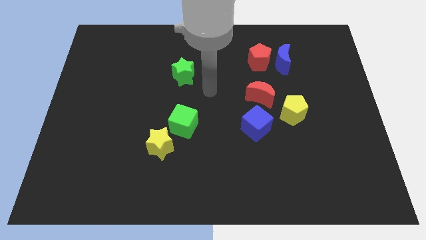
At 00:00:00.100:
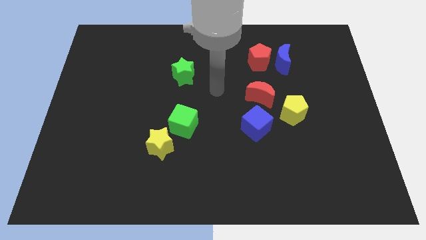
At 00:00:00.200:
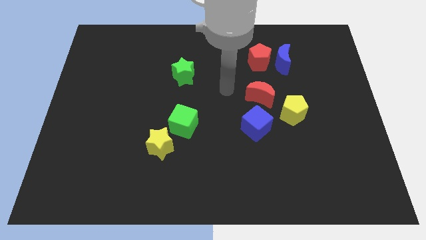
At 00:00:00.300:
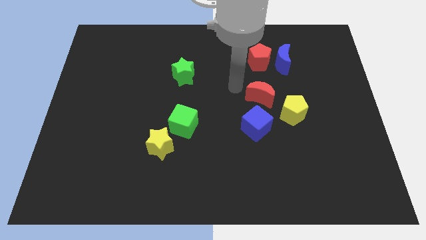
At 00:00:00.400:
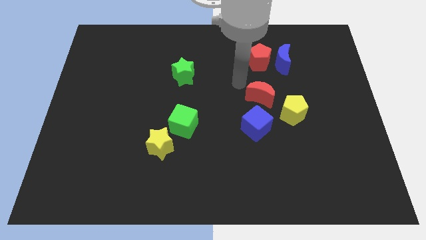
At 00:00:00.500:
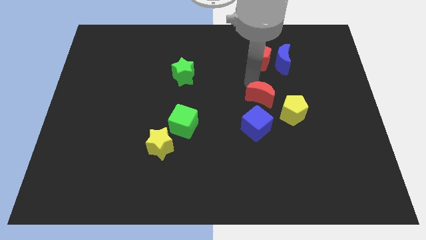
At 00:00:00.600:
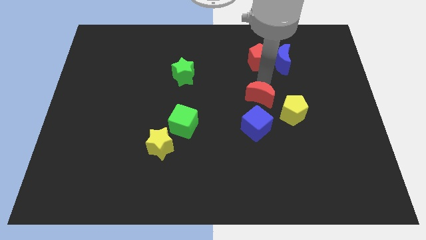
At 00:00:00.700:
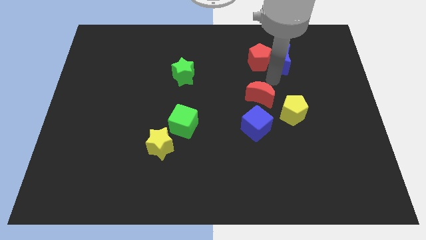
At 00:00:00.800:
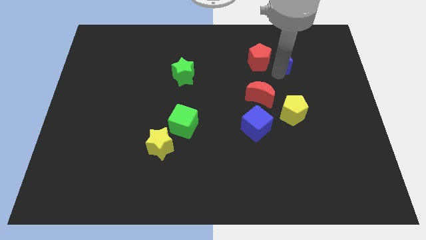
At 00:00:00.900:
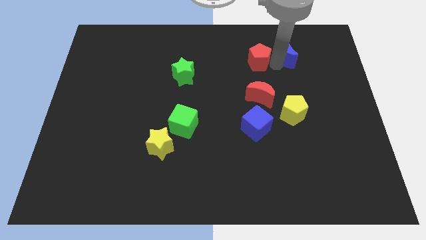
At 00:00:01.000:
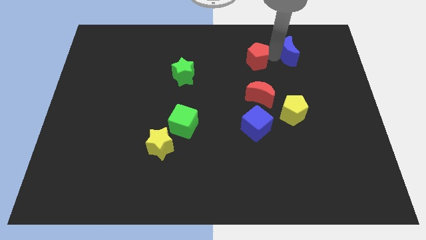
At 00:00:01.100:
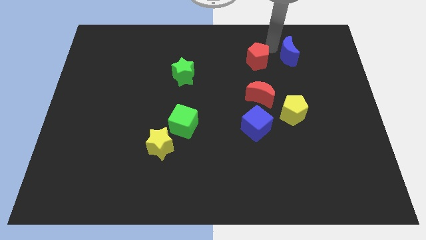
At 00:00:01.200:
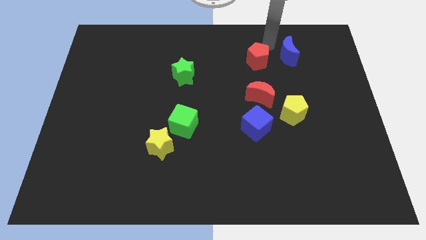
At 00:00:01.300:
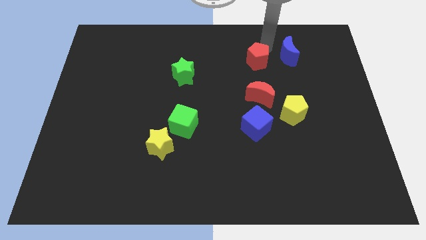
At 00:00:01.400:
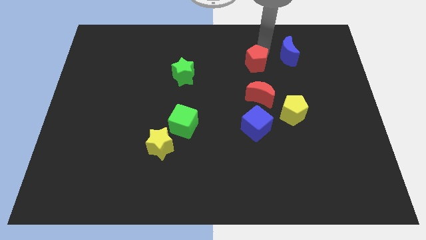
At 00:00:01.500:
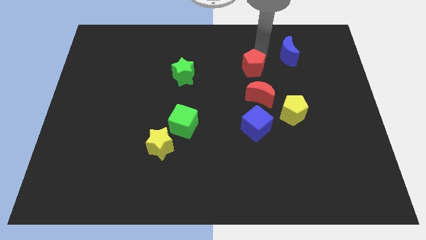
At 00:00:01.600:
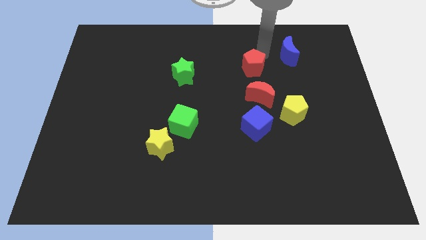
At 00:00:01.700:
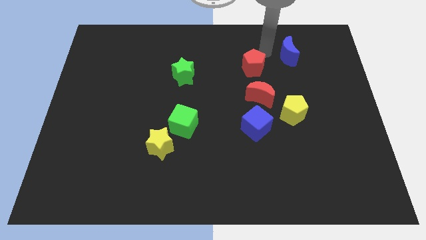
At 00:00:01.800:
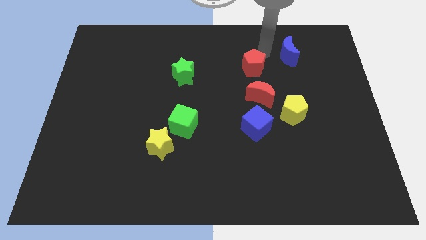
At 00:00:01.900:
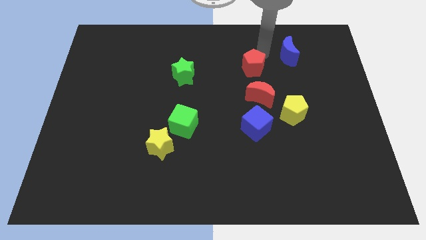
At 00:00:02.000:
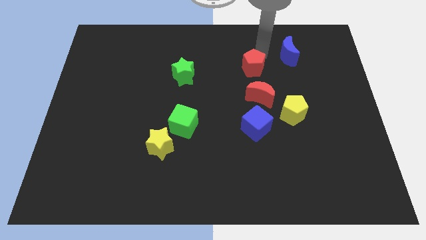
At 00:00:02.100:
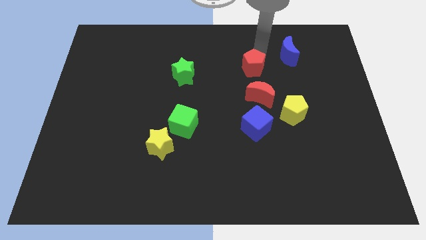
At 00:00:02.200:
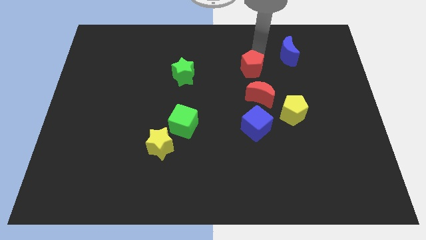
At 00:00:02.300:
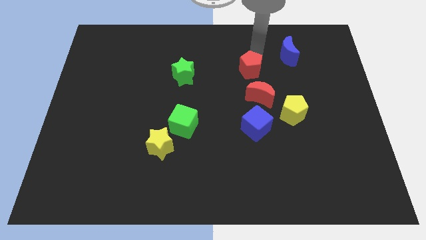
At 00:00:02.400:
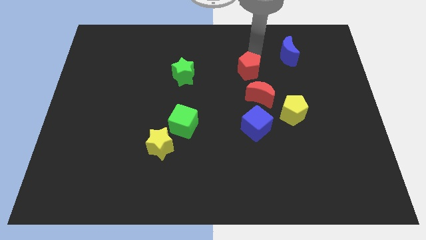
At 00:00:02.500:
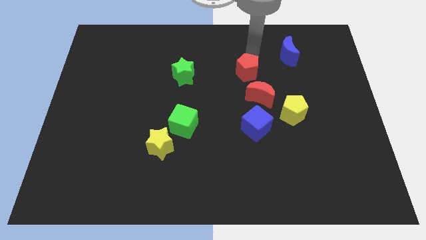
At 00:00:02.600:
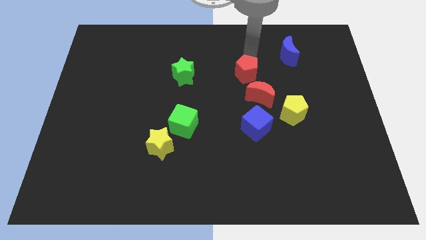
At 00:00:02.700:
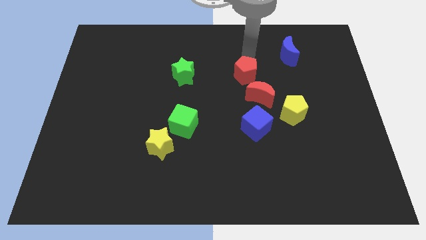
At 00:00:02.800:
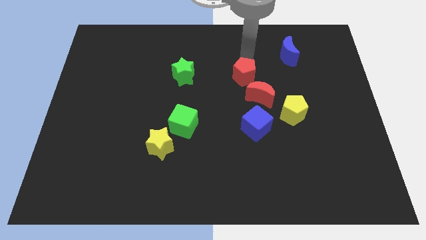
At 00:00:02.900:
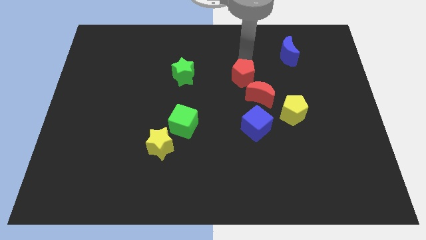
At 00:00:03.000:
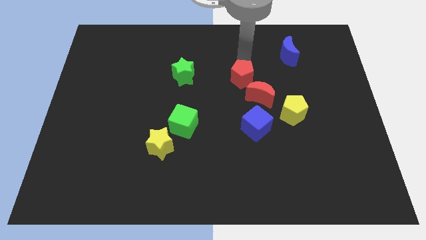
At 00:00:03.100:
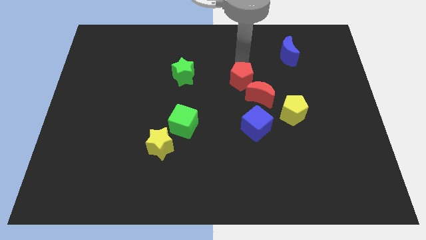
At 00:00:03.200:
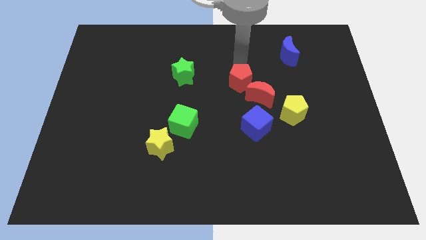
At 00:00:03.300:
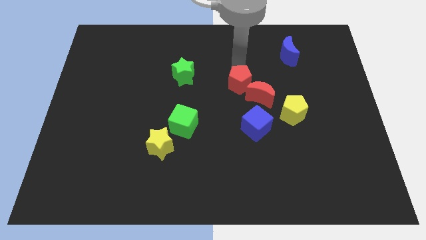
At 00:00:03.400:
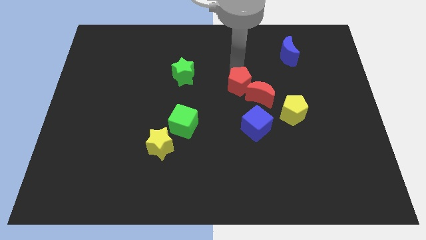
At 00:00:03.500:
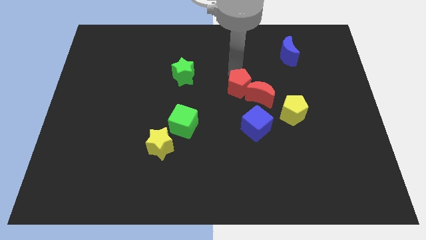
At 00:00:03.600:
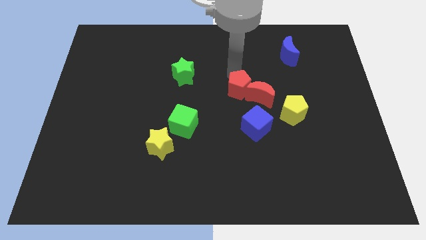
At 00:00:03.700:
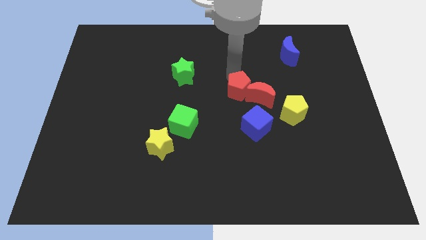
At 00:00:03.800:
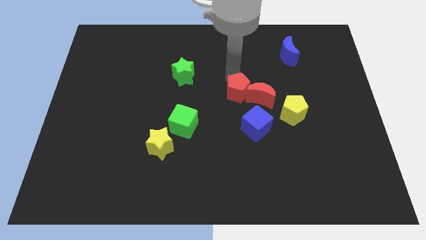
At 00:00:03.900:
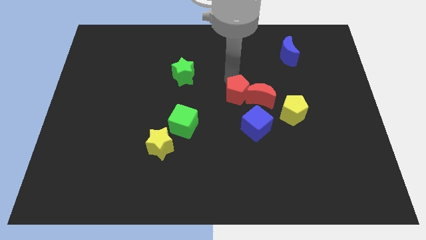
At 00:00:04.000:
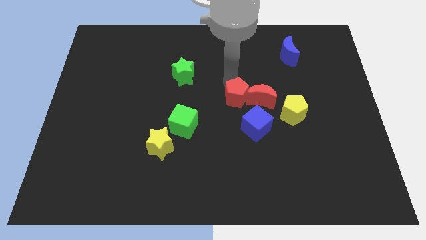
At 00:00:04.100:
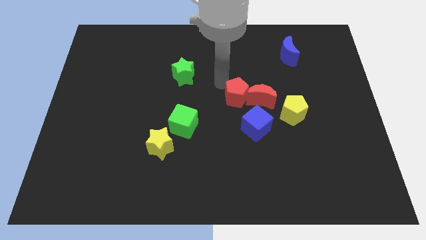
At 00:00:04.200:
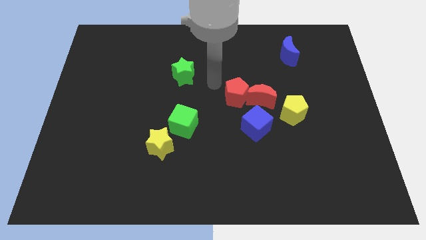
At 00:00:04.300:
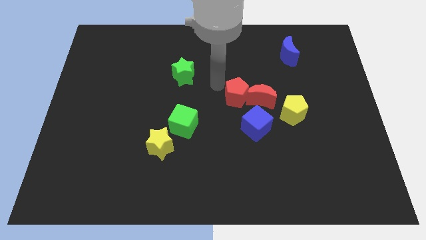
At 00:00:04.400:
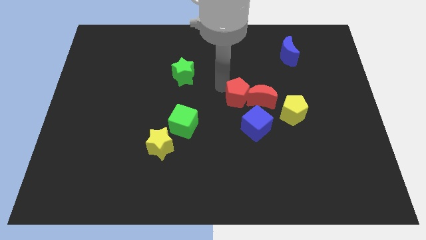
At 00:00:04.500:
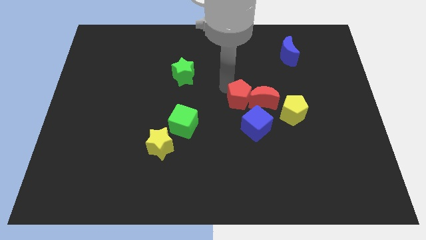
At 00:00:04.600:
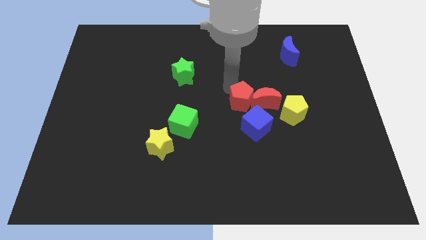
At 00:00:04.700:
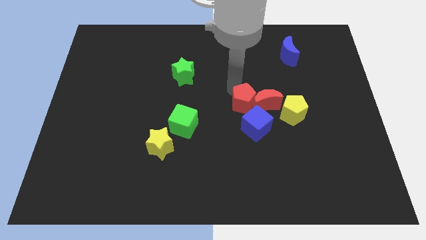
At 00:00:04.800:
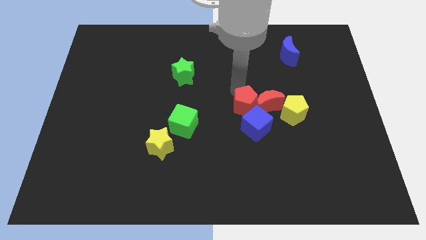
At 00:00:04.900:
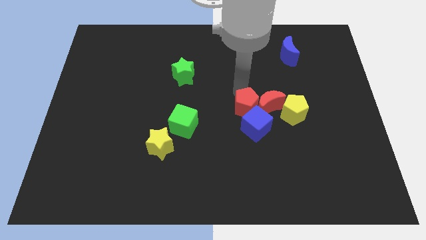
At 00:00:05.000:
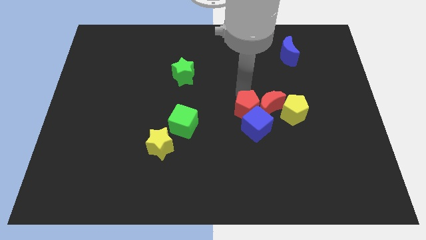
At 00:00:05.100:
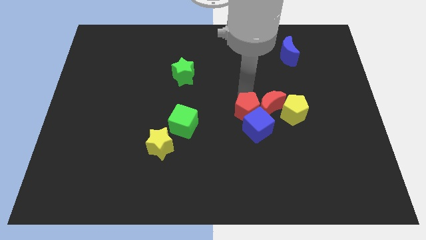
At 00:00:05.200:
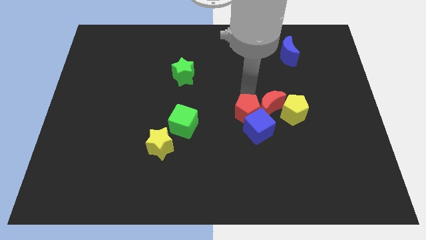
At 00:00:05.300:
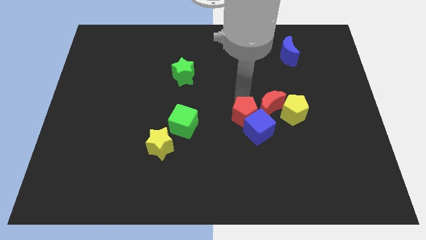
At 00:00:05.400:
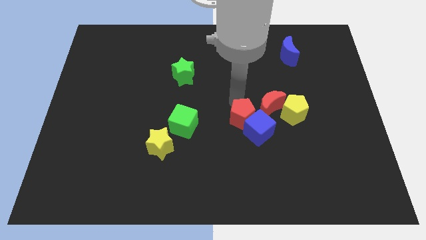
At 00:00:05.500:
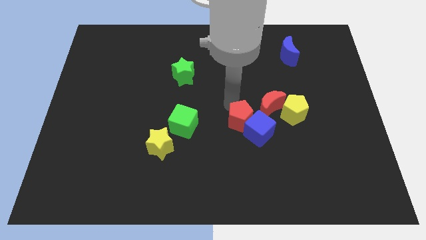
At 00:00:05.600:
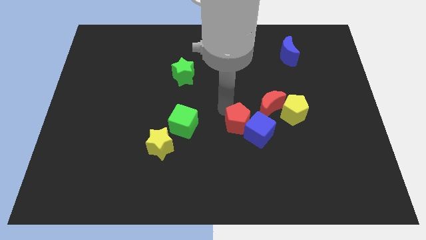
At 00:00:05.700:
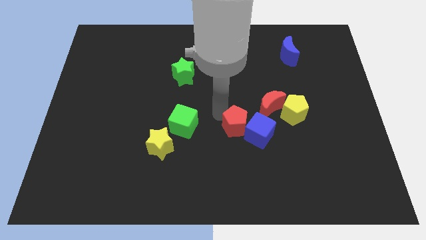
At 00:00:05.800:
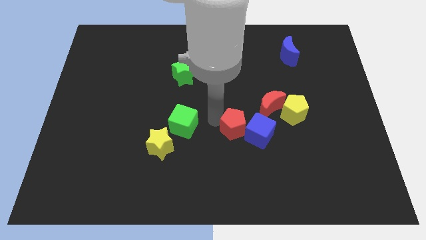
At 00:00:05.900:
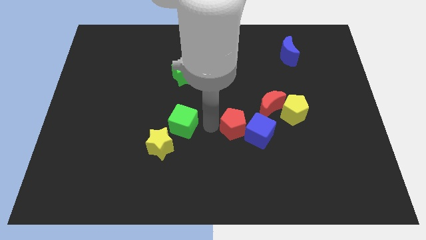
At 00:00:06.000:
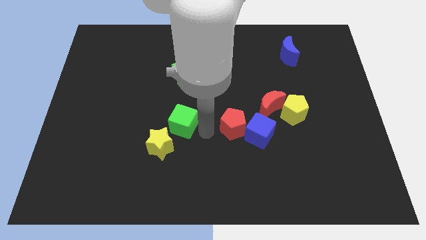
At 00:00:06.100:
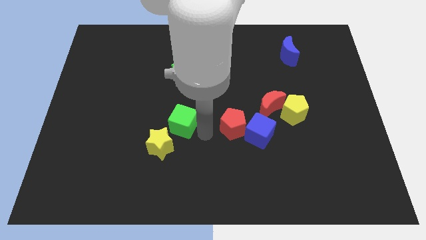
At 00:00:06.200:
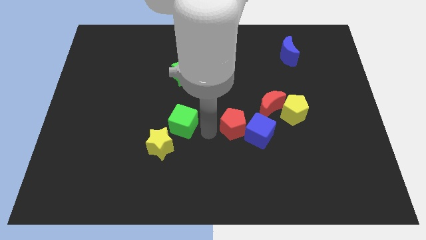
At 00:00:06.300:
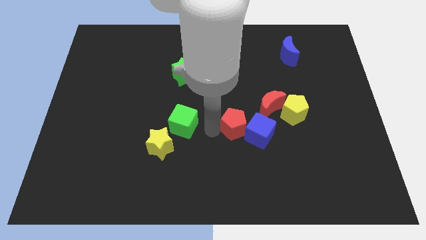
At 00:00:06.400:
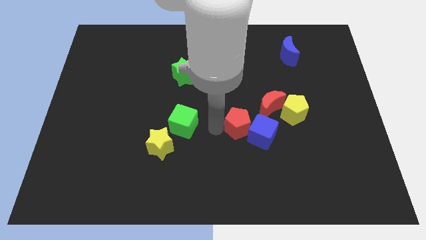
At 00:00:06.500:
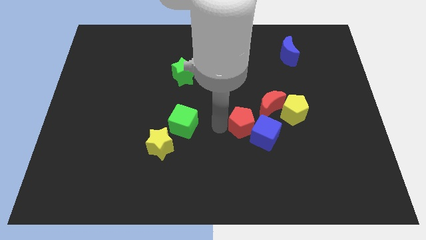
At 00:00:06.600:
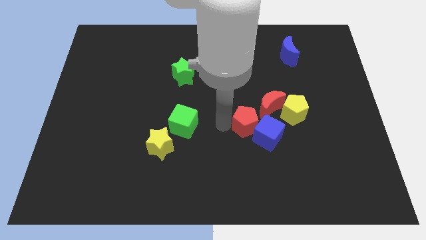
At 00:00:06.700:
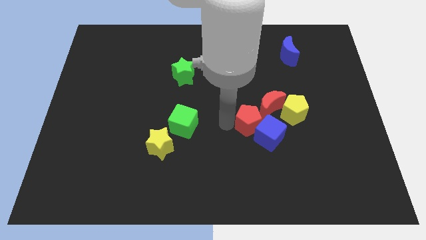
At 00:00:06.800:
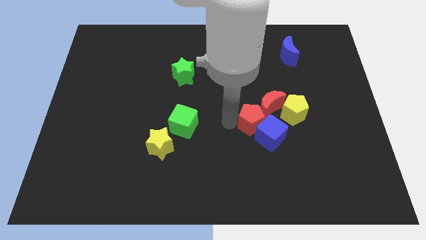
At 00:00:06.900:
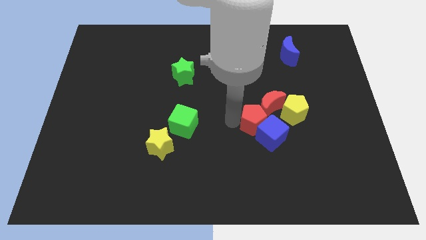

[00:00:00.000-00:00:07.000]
push the red pentagon diagonally down and to the left of the yellow pentagon
